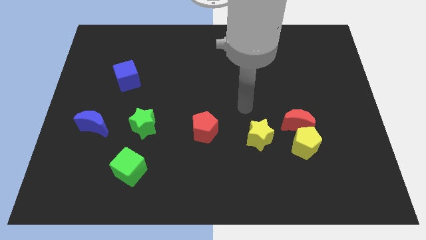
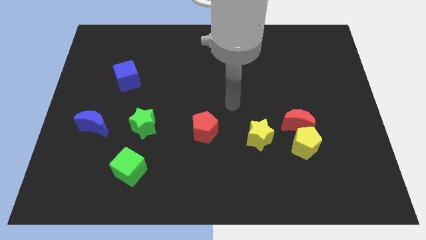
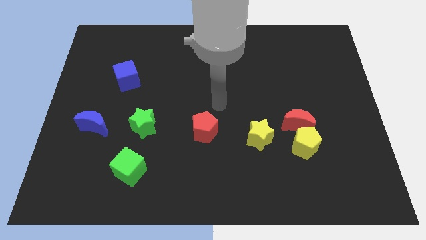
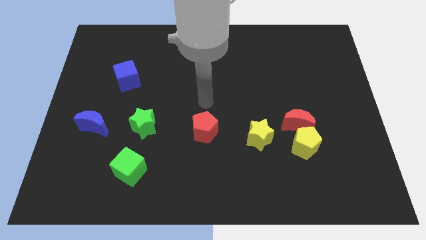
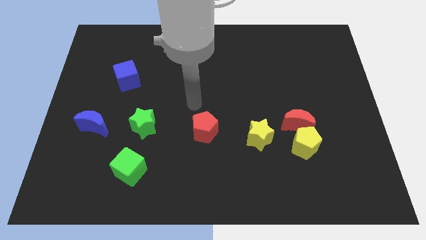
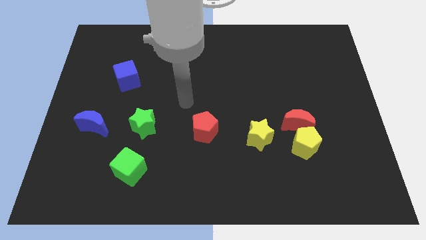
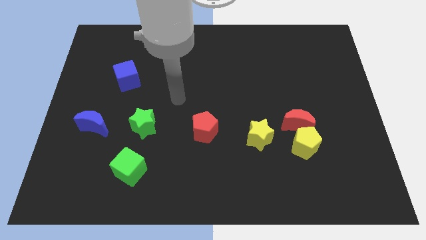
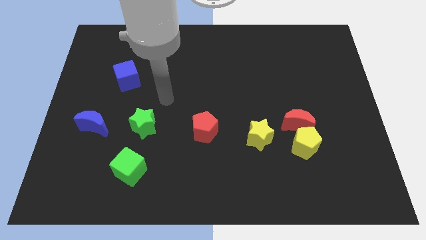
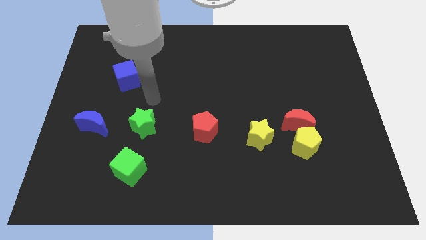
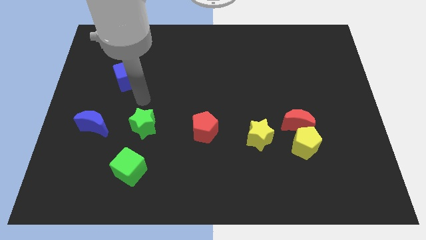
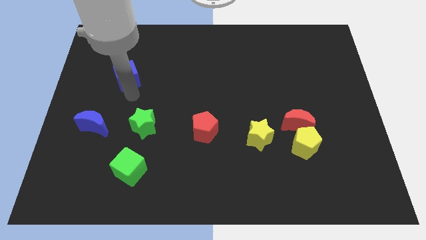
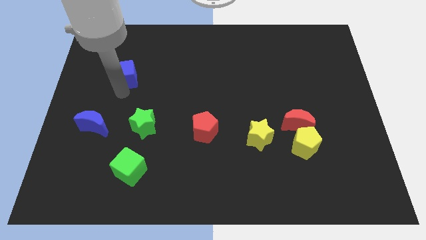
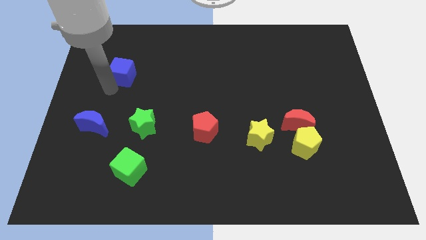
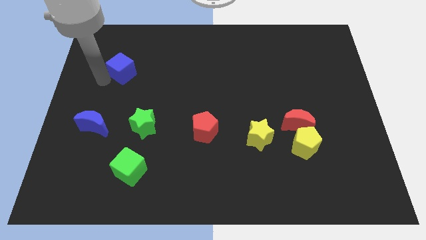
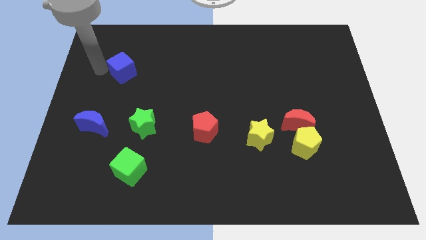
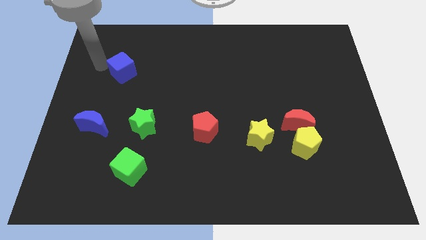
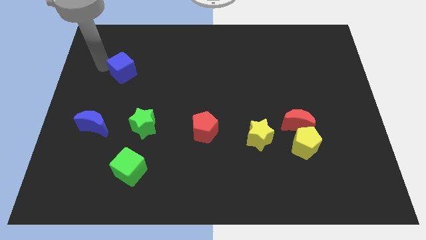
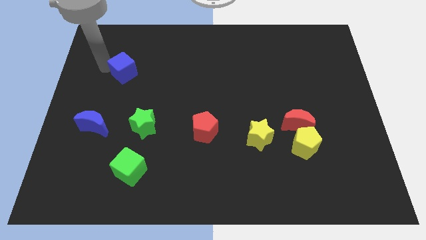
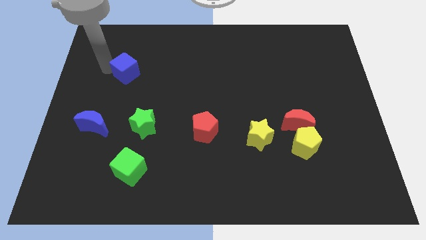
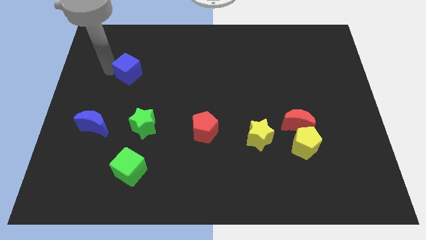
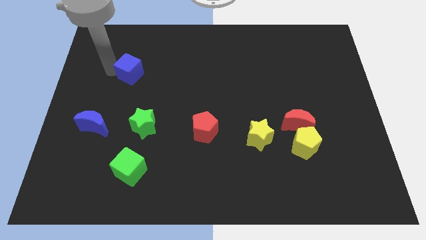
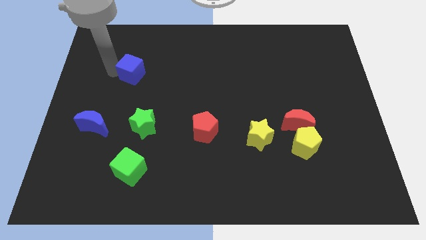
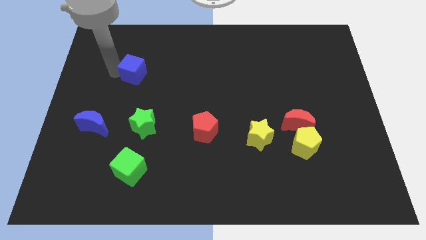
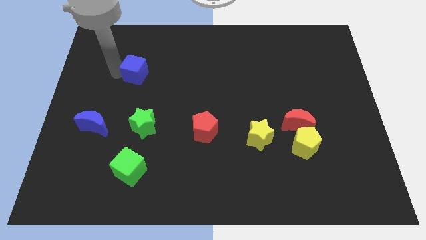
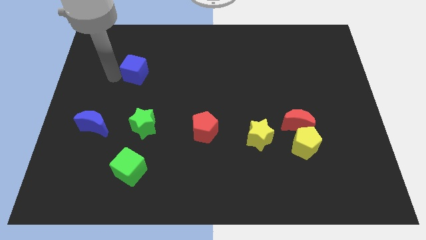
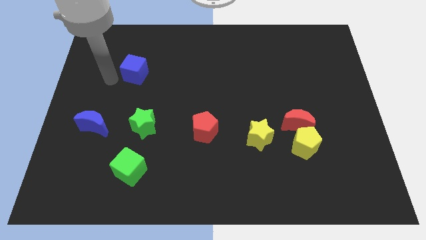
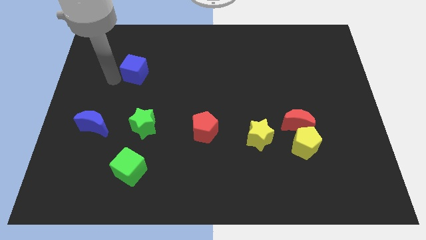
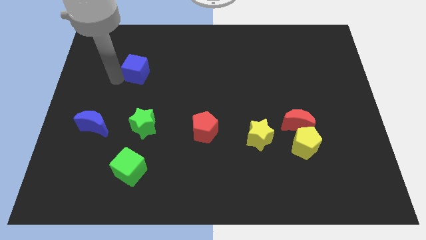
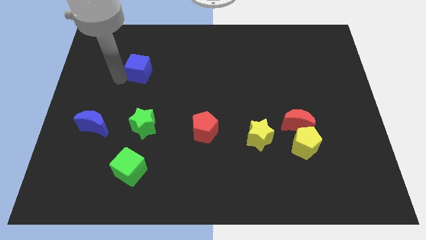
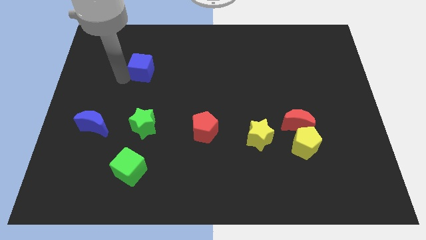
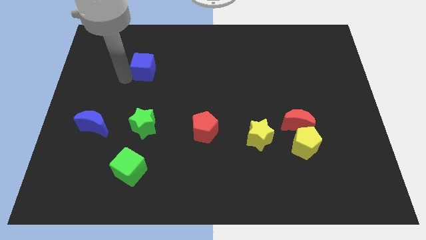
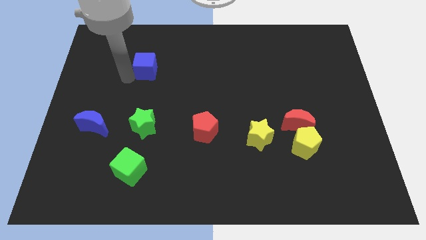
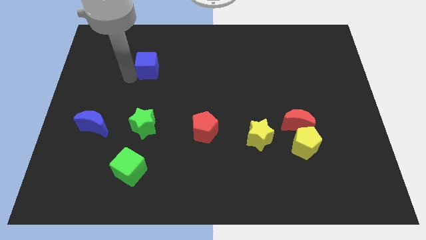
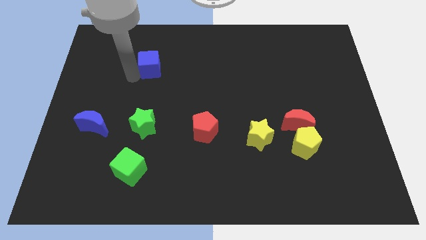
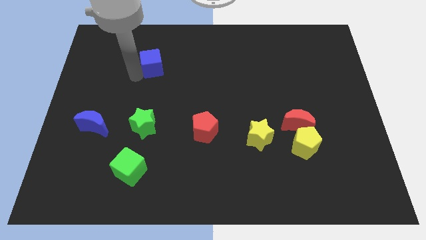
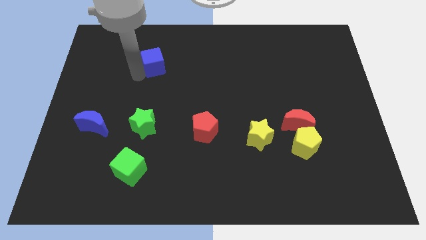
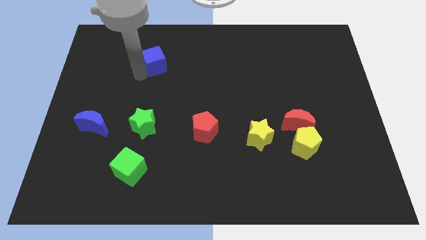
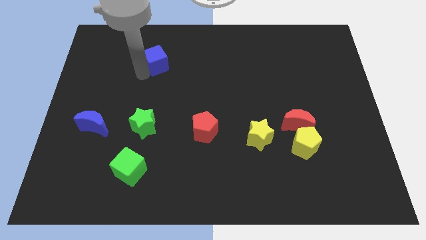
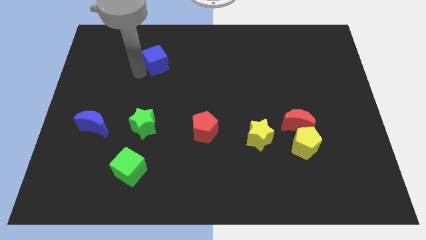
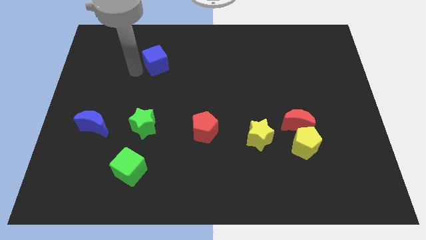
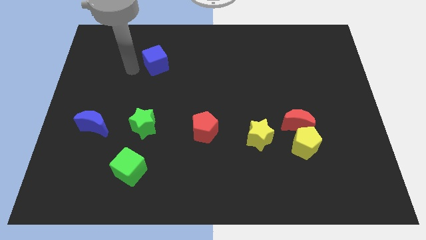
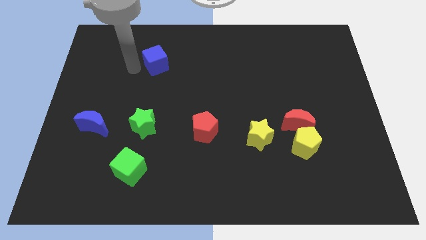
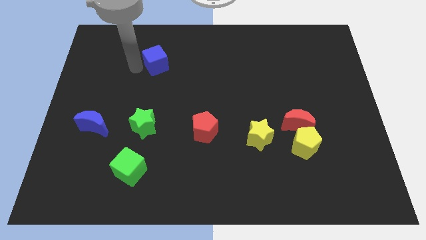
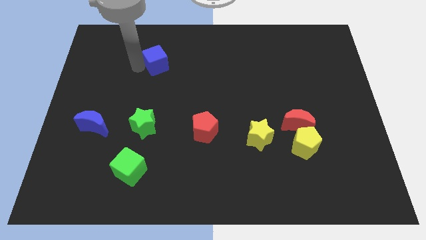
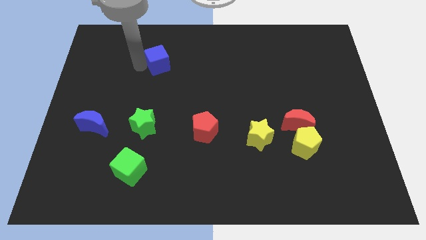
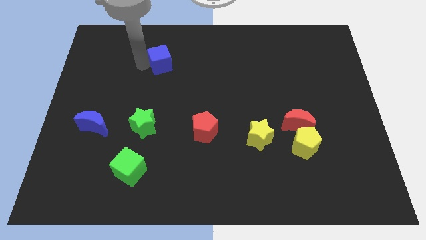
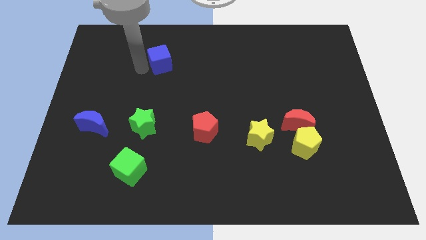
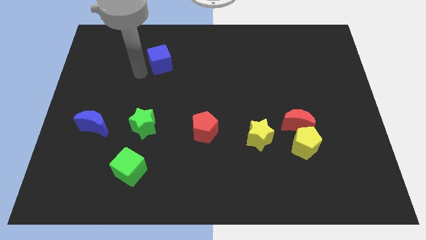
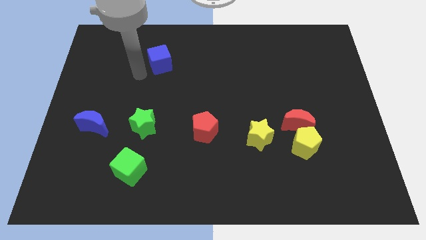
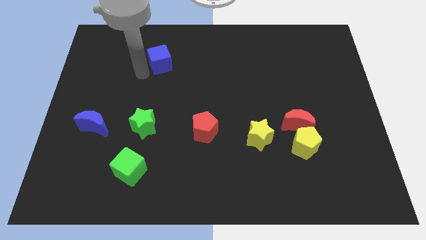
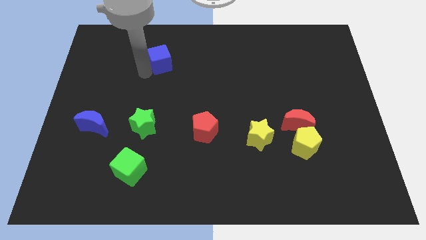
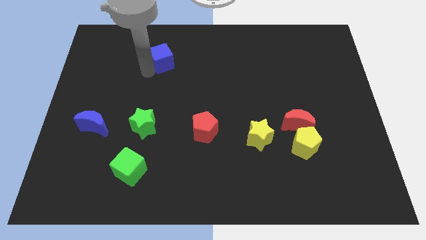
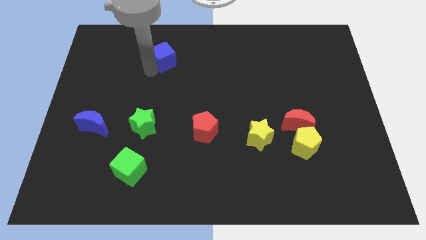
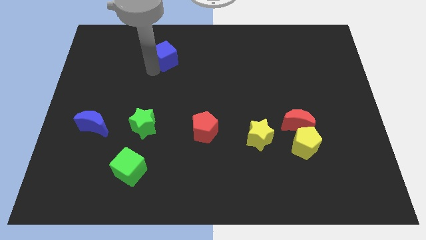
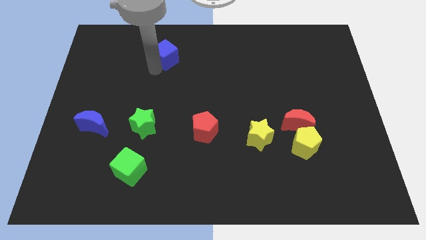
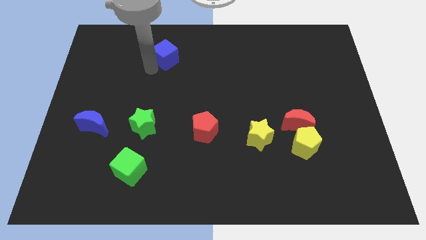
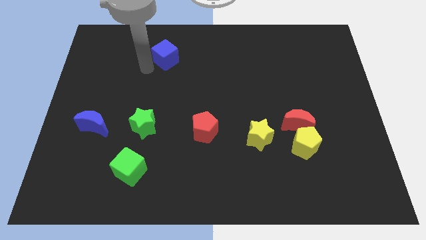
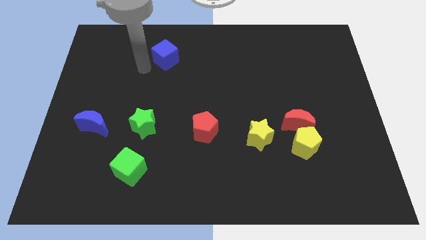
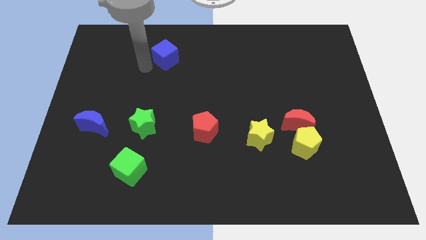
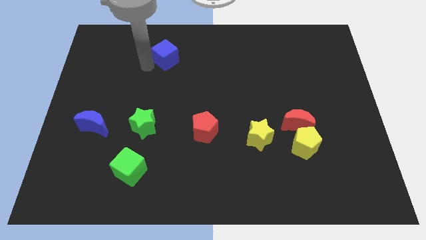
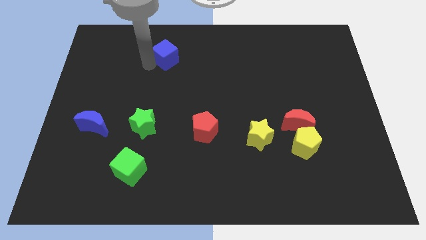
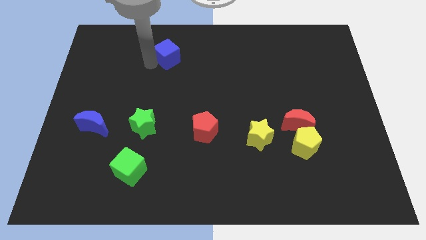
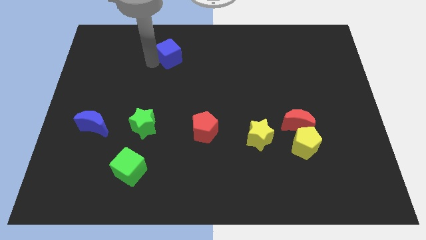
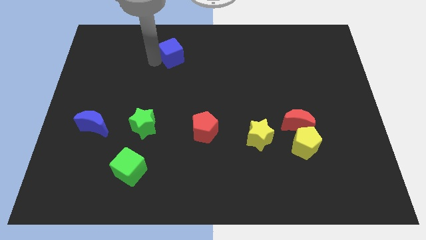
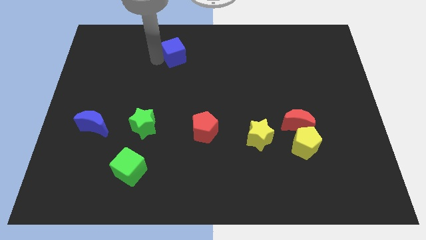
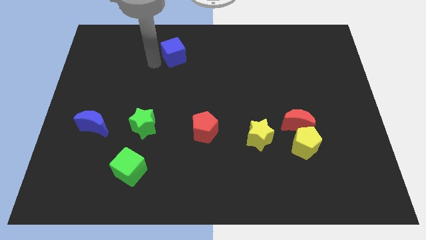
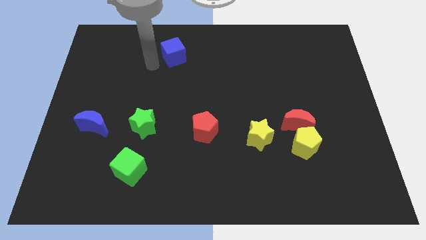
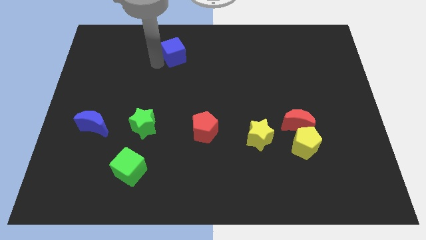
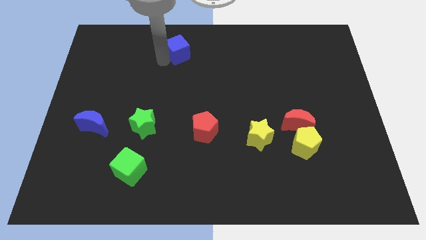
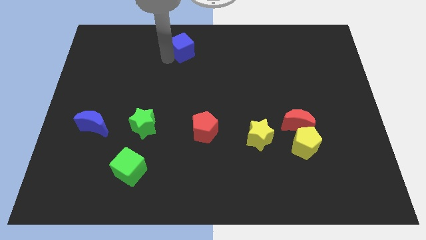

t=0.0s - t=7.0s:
move the blue cube to the top
